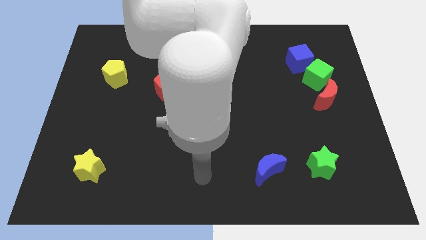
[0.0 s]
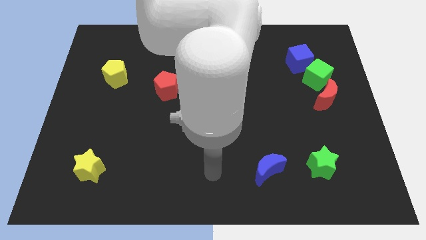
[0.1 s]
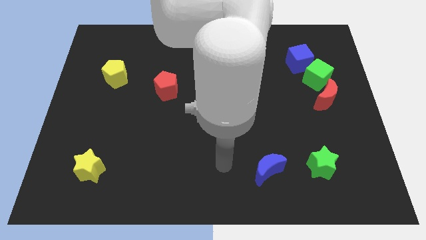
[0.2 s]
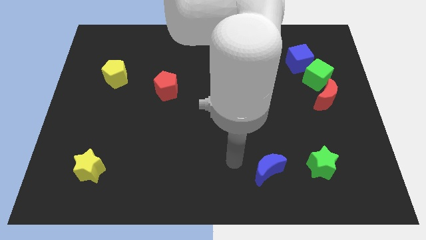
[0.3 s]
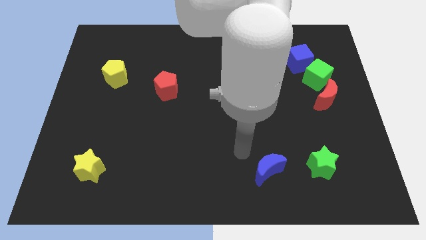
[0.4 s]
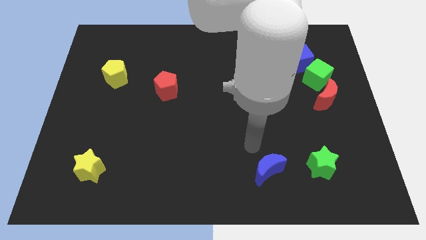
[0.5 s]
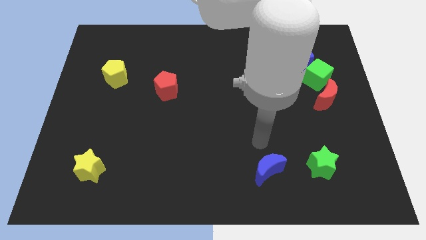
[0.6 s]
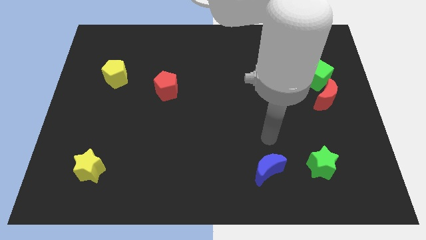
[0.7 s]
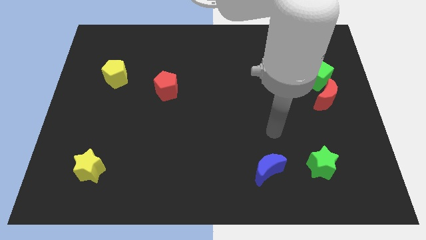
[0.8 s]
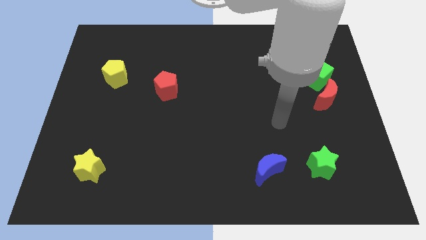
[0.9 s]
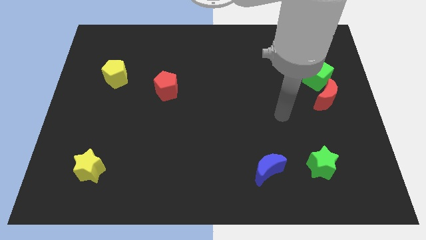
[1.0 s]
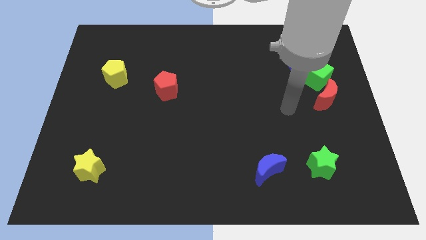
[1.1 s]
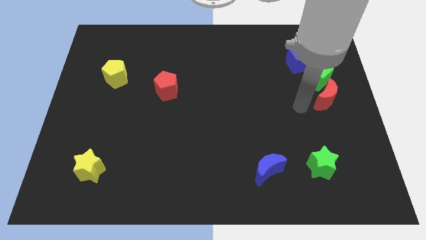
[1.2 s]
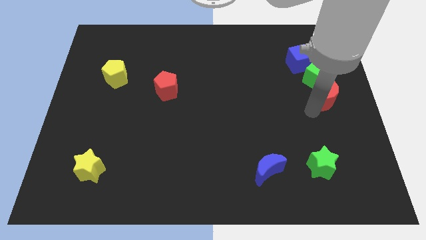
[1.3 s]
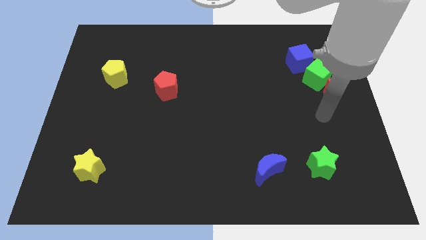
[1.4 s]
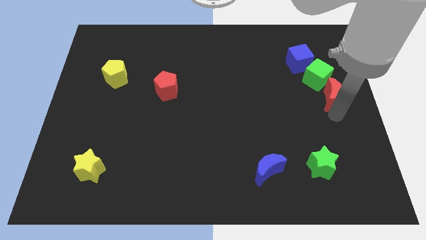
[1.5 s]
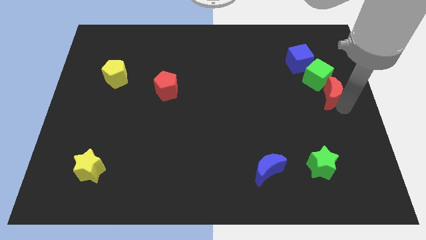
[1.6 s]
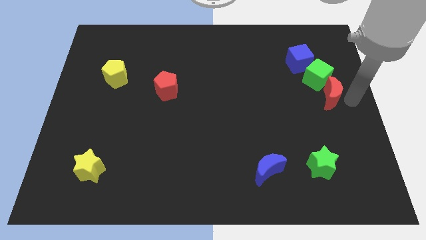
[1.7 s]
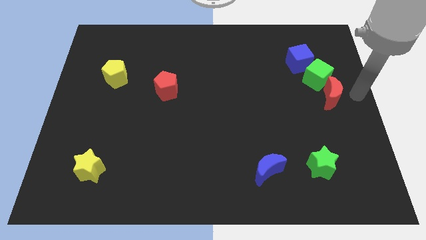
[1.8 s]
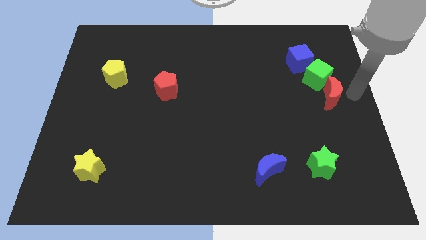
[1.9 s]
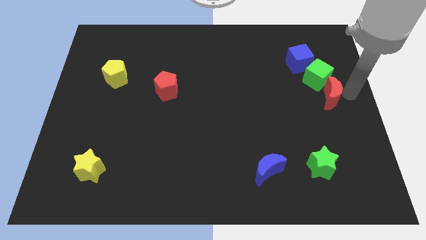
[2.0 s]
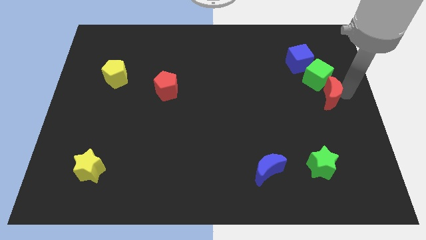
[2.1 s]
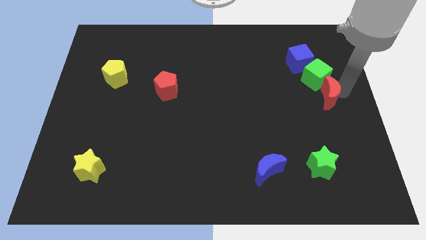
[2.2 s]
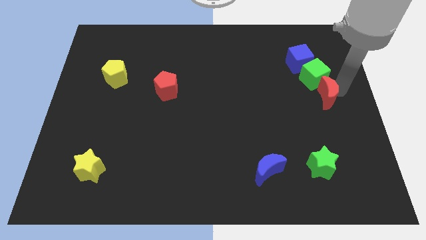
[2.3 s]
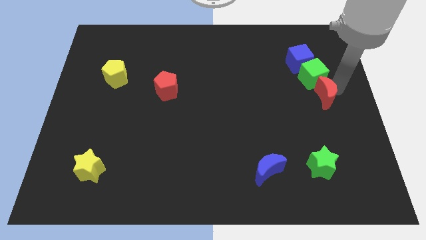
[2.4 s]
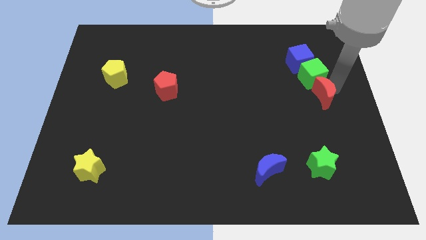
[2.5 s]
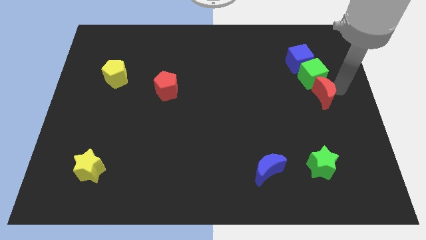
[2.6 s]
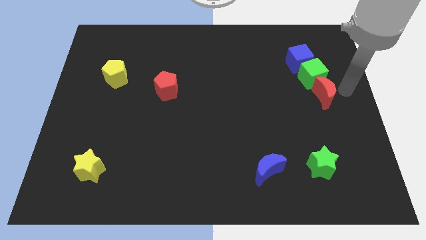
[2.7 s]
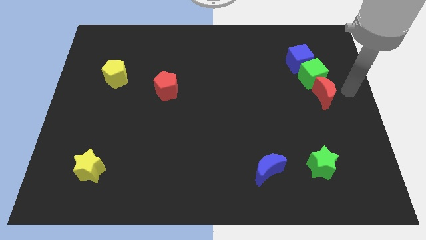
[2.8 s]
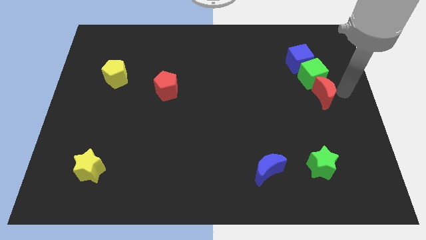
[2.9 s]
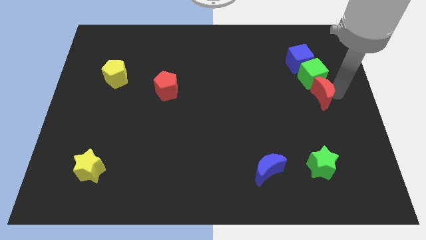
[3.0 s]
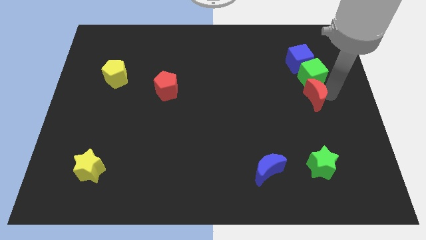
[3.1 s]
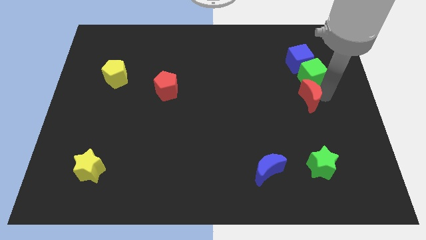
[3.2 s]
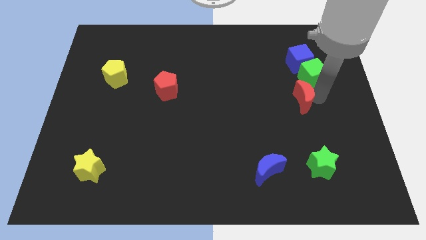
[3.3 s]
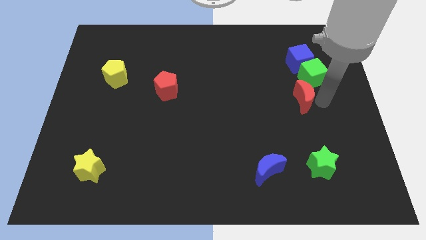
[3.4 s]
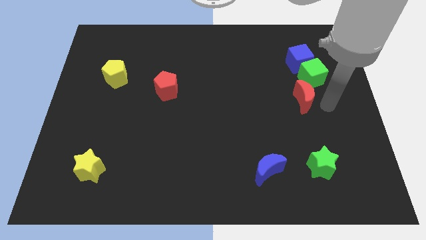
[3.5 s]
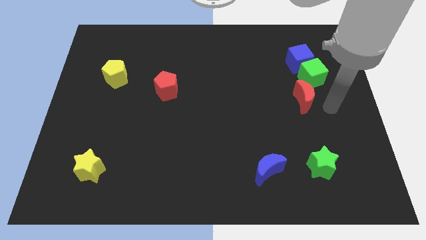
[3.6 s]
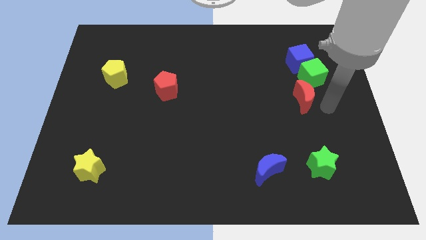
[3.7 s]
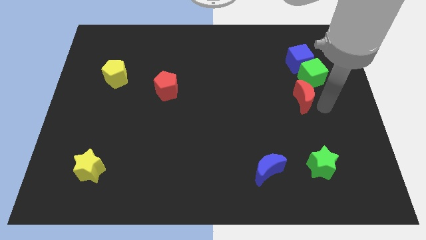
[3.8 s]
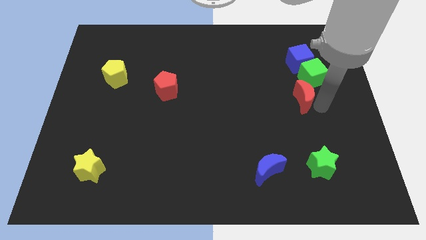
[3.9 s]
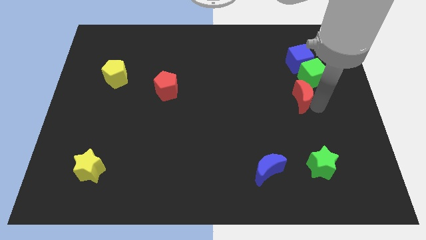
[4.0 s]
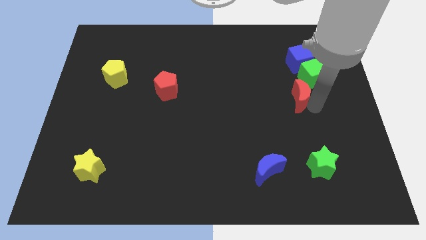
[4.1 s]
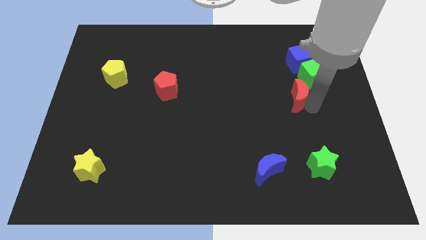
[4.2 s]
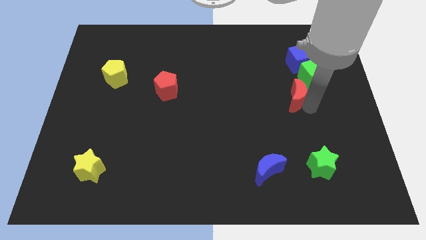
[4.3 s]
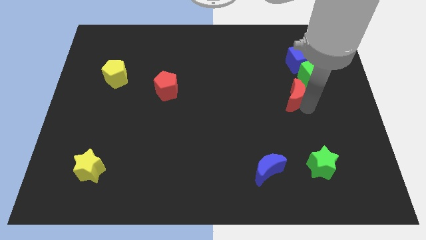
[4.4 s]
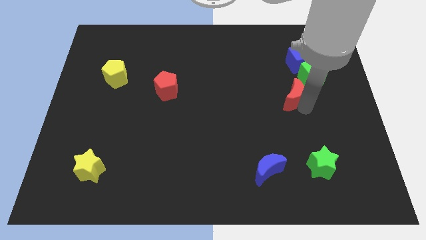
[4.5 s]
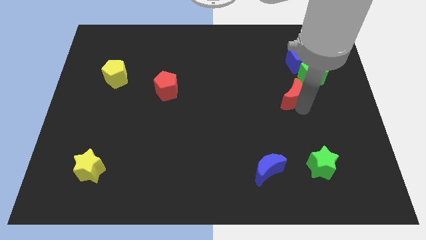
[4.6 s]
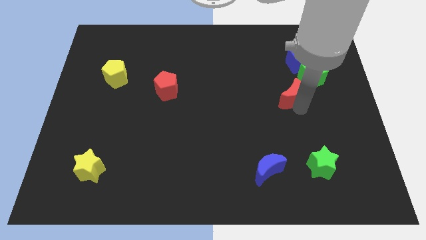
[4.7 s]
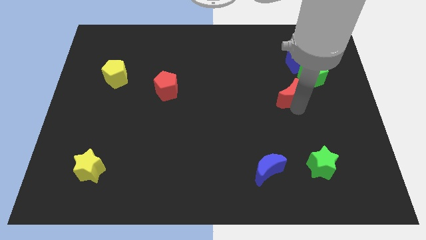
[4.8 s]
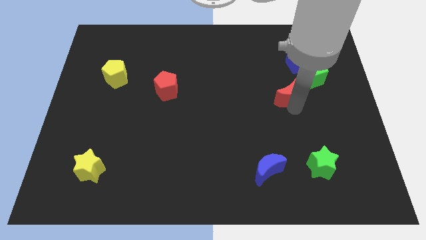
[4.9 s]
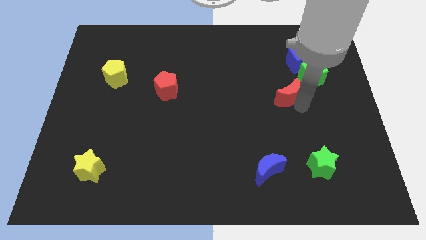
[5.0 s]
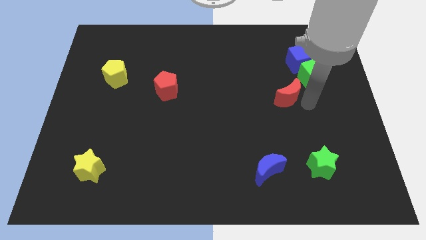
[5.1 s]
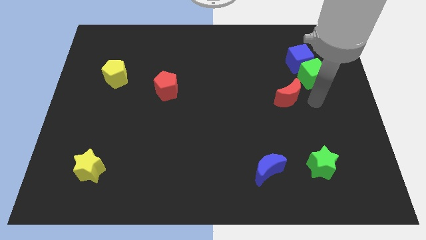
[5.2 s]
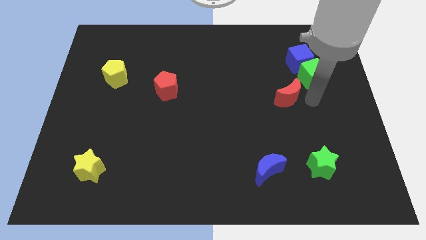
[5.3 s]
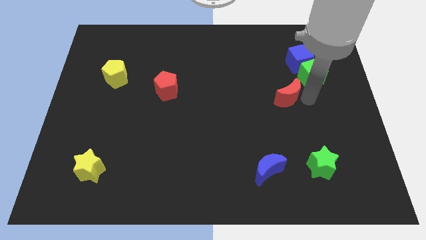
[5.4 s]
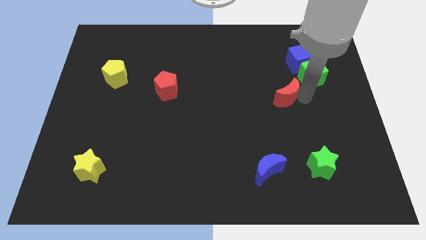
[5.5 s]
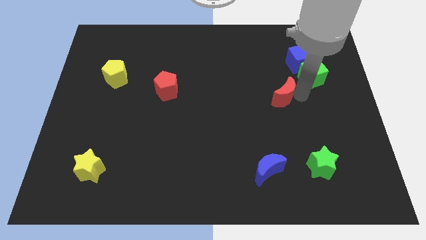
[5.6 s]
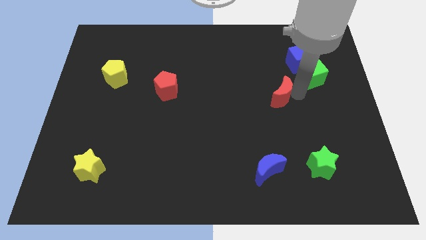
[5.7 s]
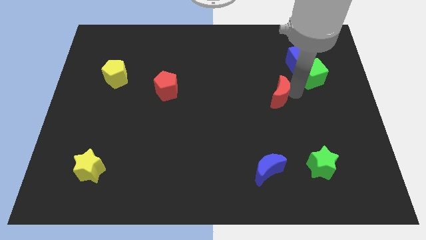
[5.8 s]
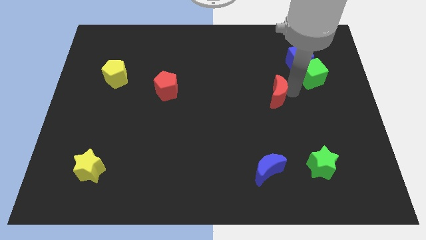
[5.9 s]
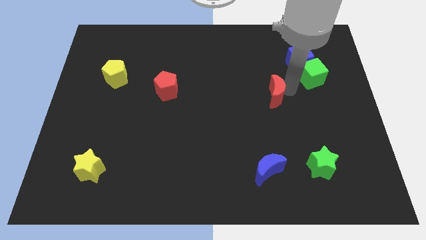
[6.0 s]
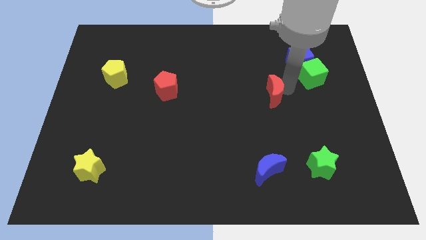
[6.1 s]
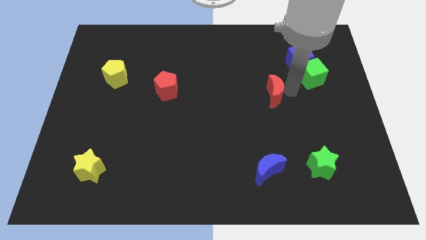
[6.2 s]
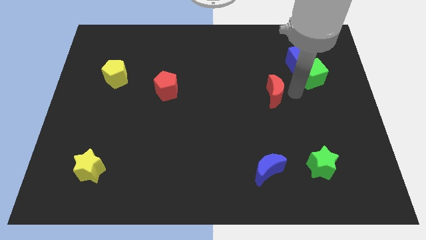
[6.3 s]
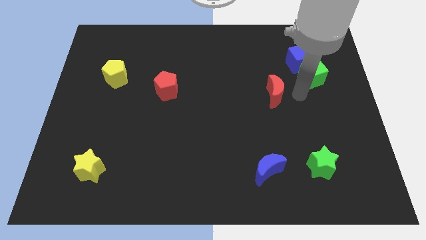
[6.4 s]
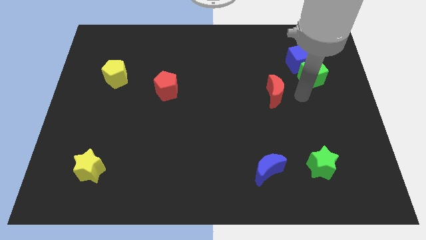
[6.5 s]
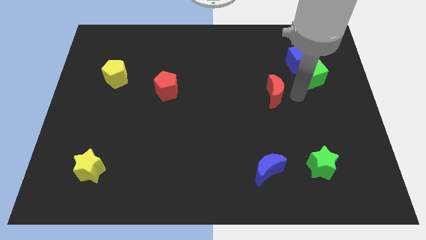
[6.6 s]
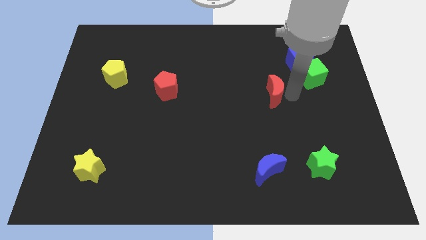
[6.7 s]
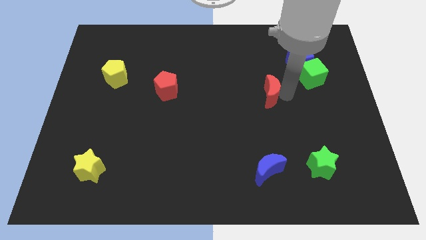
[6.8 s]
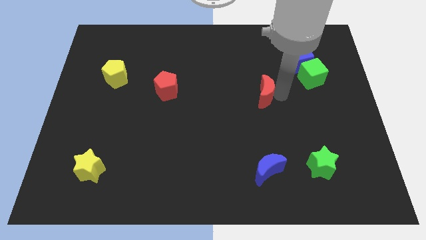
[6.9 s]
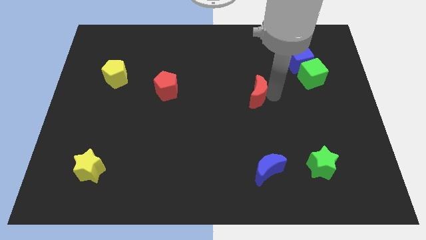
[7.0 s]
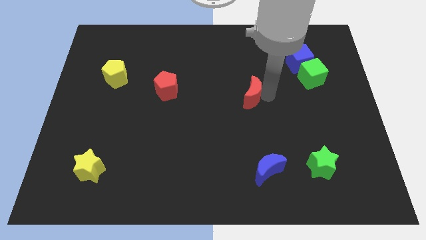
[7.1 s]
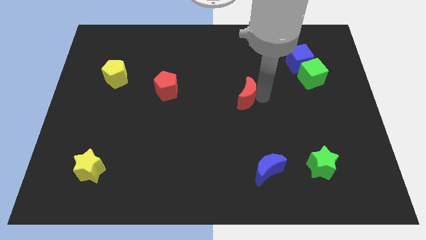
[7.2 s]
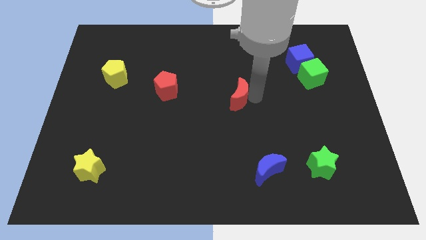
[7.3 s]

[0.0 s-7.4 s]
move the red moon left

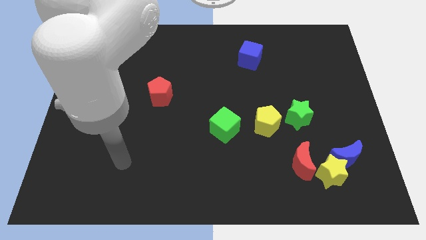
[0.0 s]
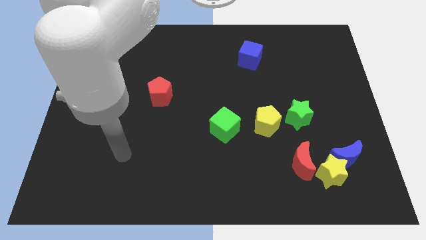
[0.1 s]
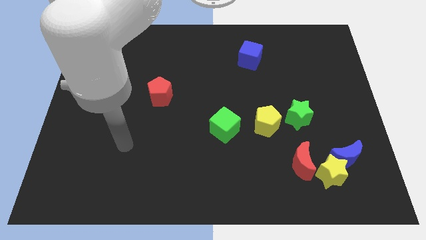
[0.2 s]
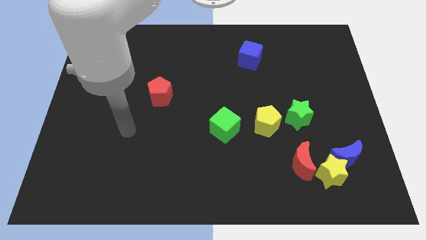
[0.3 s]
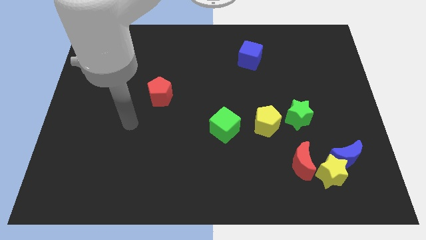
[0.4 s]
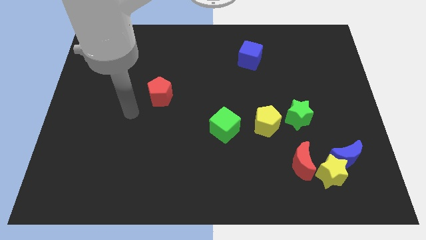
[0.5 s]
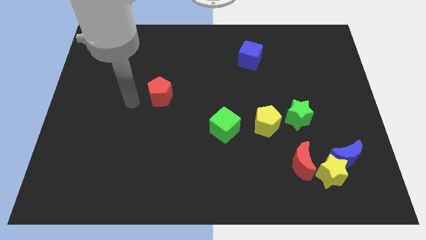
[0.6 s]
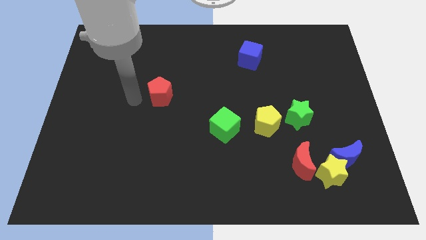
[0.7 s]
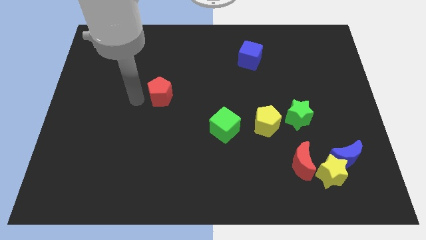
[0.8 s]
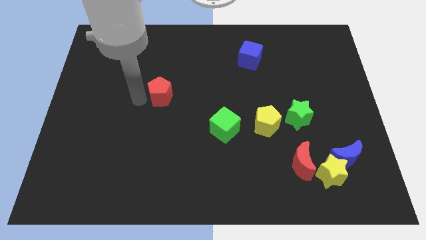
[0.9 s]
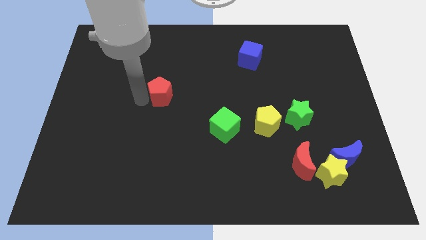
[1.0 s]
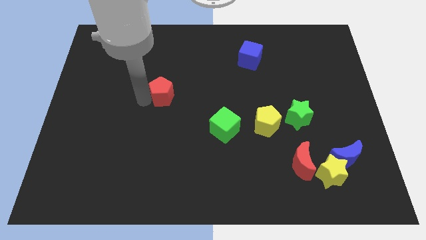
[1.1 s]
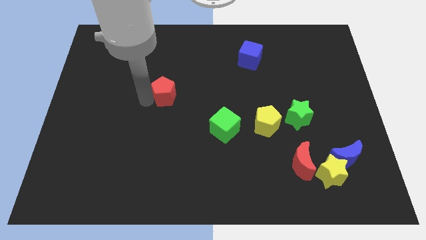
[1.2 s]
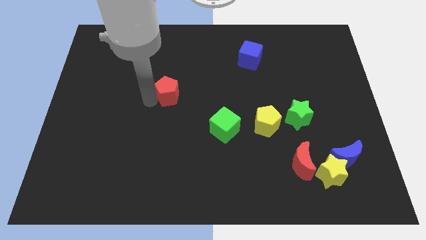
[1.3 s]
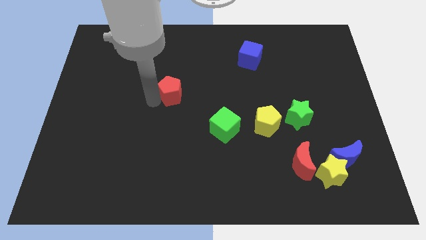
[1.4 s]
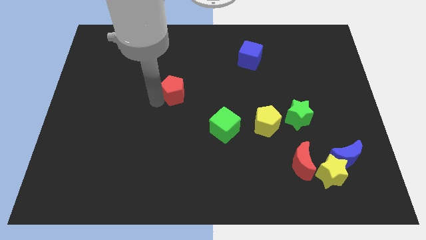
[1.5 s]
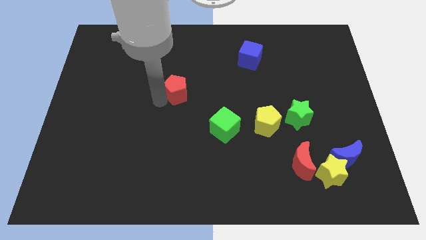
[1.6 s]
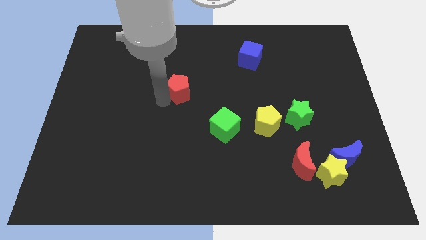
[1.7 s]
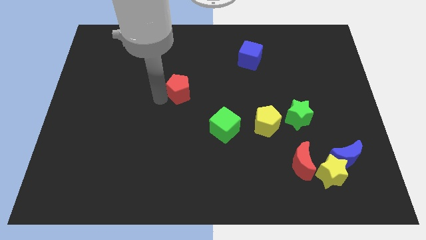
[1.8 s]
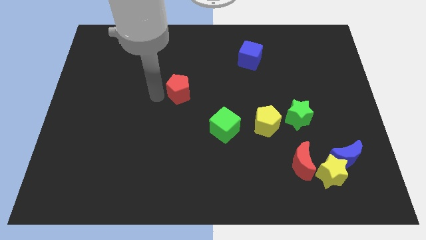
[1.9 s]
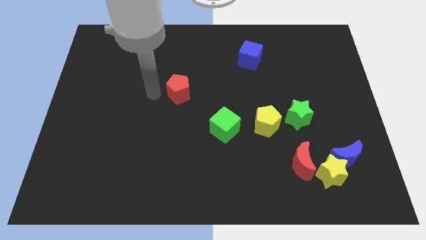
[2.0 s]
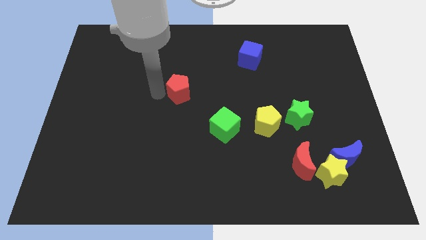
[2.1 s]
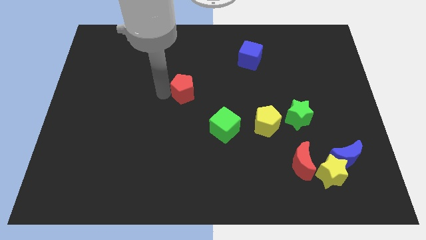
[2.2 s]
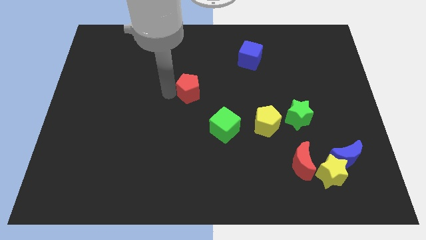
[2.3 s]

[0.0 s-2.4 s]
slightly move the red pentagon right
